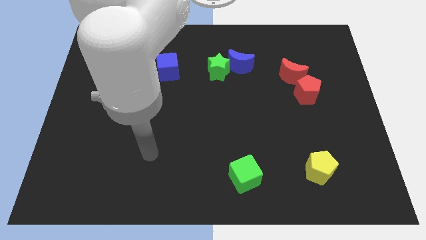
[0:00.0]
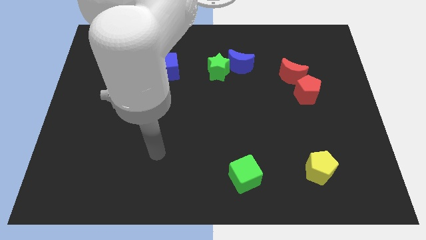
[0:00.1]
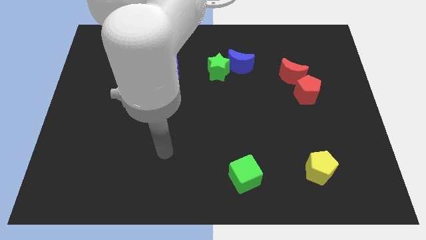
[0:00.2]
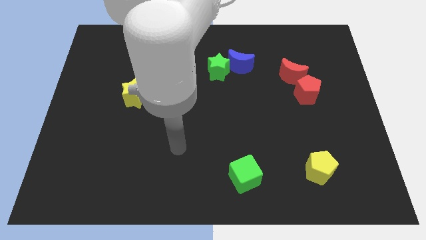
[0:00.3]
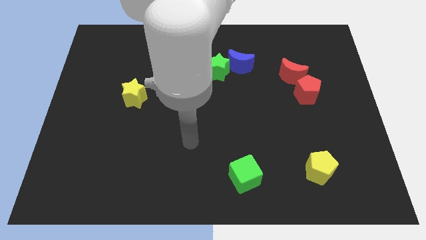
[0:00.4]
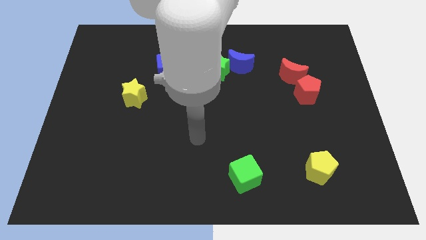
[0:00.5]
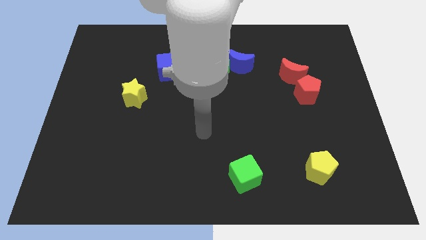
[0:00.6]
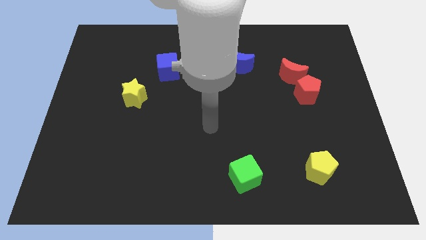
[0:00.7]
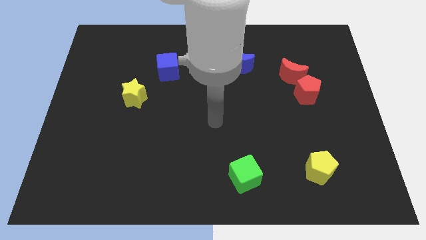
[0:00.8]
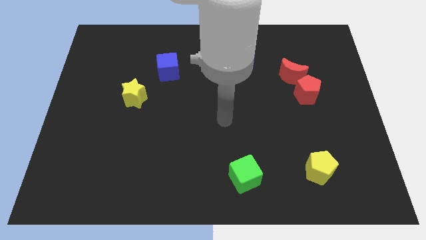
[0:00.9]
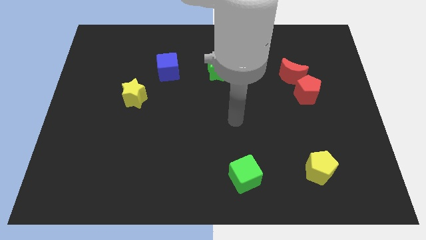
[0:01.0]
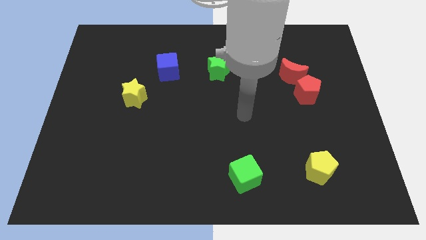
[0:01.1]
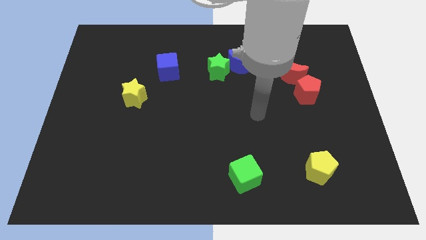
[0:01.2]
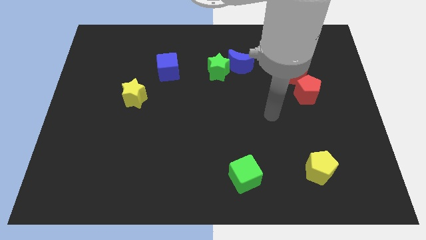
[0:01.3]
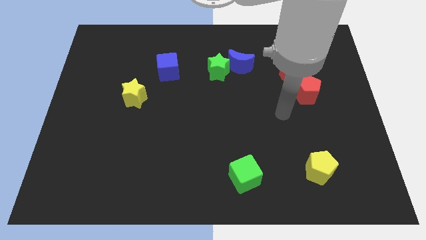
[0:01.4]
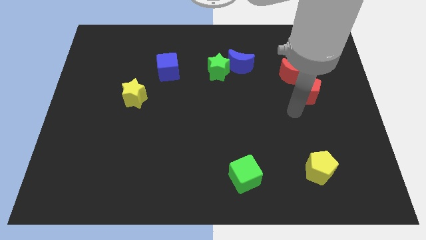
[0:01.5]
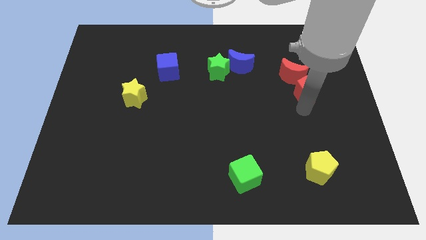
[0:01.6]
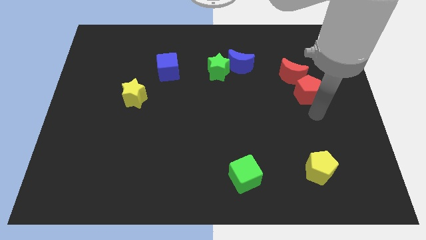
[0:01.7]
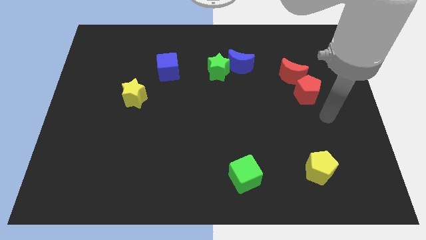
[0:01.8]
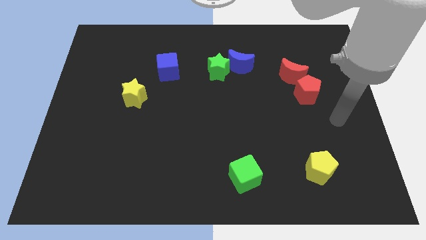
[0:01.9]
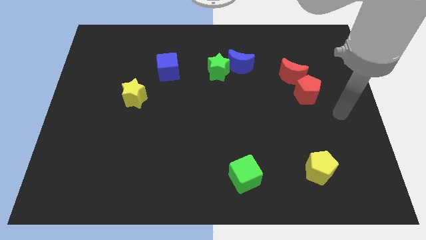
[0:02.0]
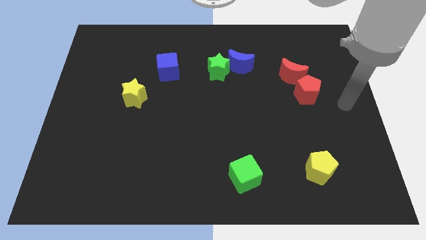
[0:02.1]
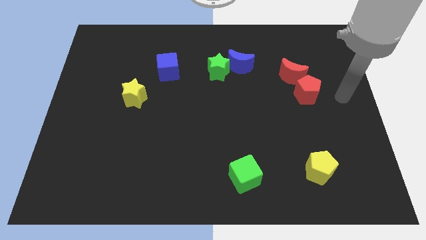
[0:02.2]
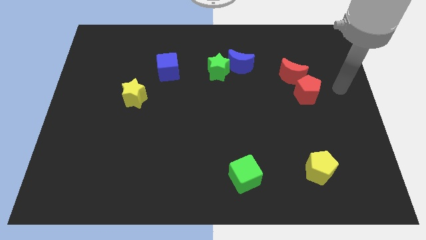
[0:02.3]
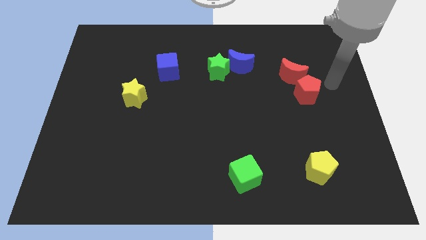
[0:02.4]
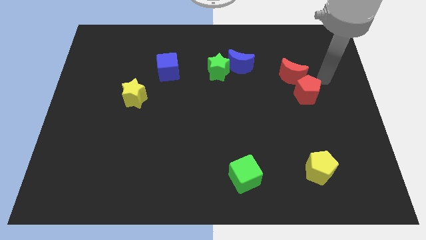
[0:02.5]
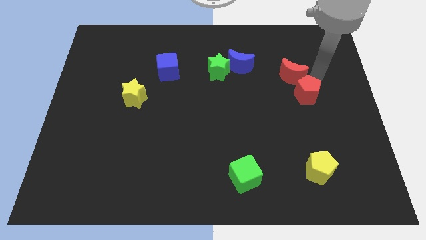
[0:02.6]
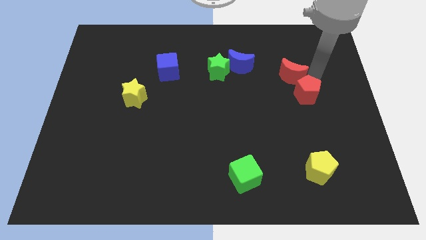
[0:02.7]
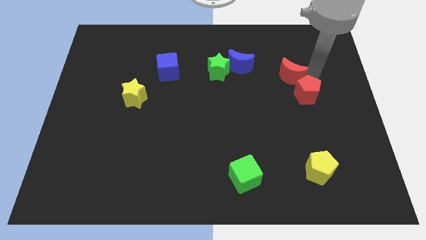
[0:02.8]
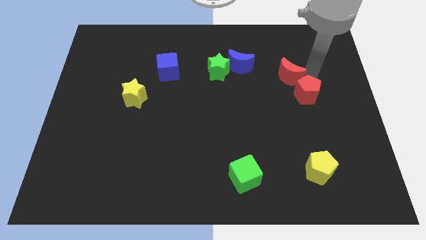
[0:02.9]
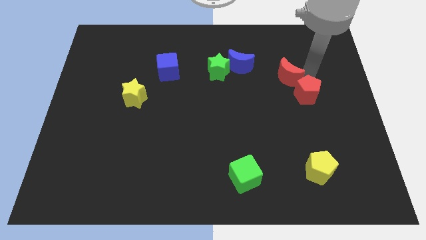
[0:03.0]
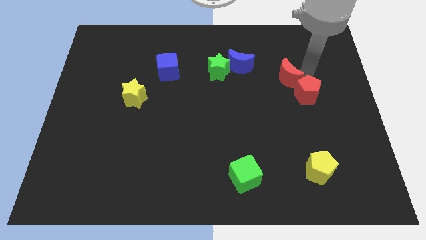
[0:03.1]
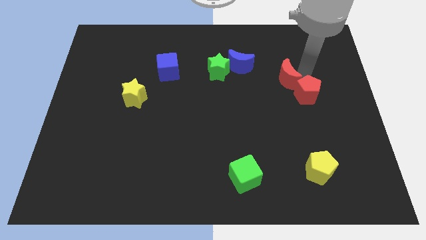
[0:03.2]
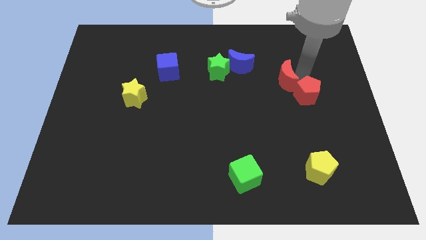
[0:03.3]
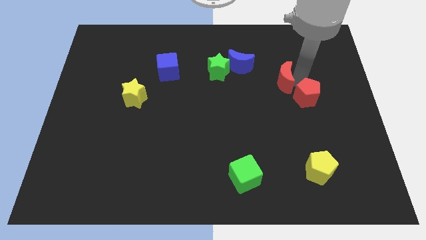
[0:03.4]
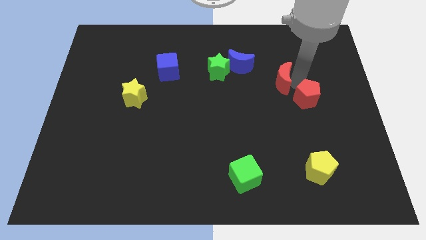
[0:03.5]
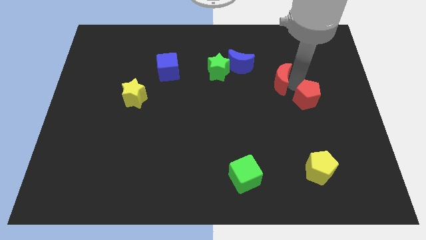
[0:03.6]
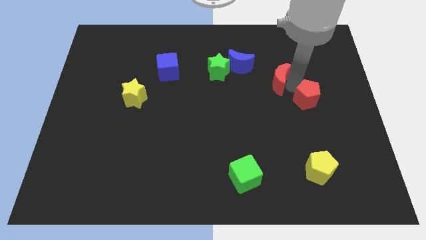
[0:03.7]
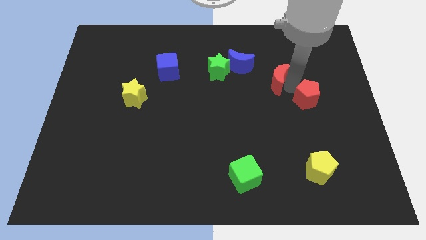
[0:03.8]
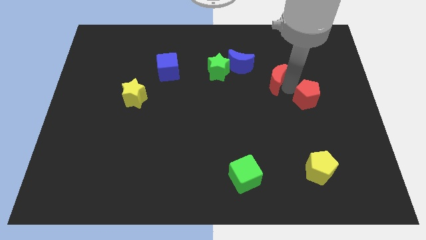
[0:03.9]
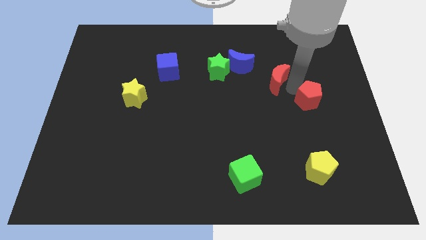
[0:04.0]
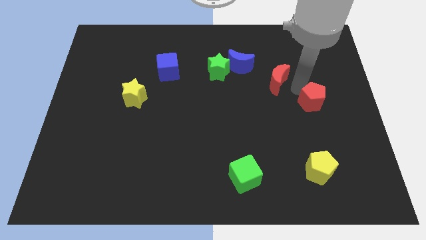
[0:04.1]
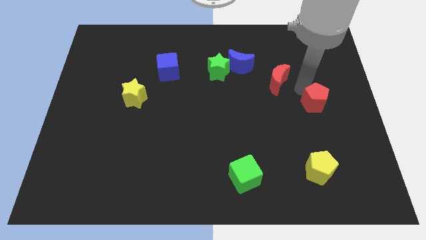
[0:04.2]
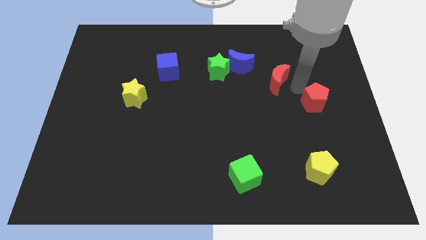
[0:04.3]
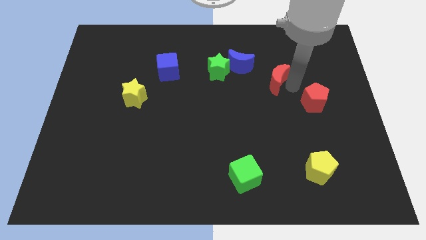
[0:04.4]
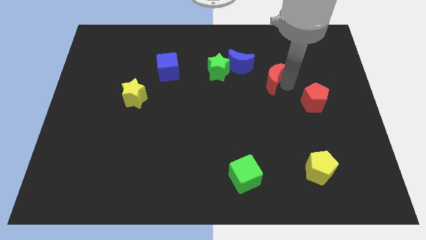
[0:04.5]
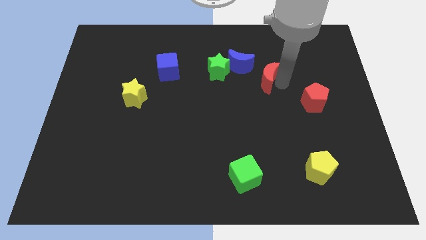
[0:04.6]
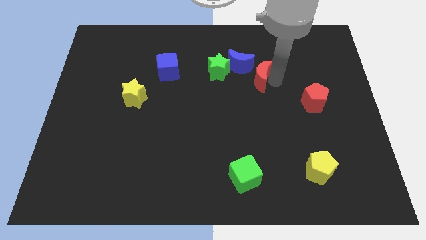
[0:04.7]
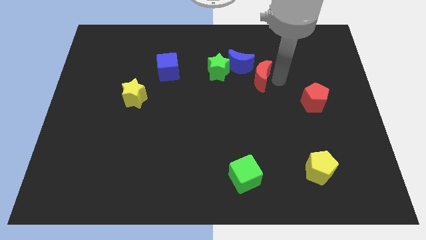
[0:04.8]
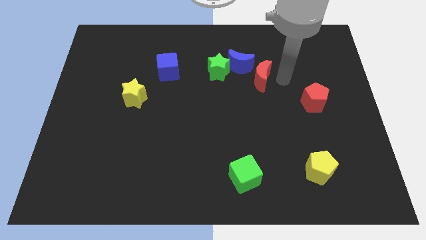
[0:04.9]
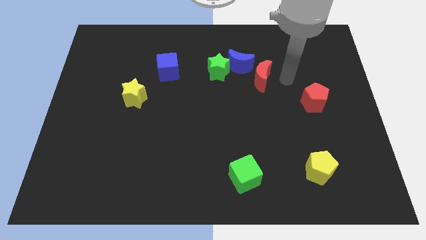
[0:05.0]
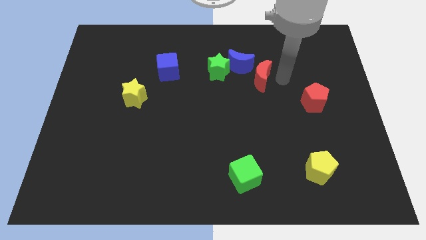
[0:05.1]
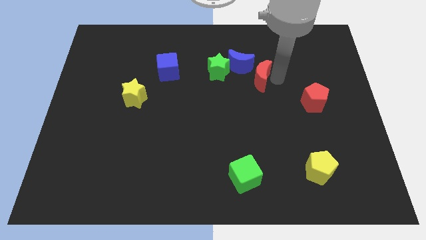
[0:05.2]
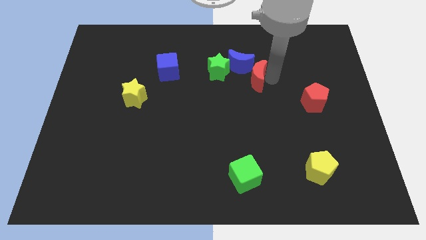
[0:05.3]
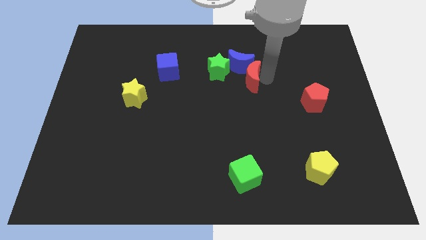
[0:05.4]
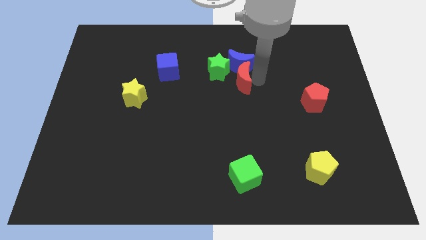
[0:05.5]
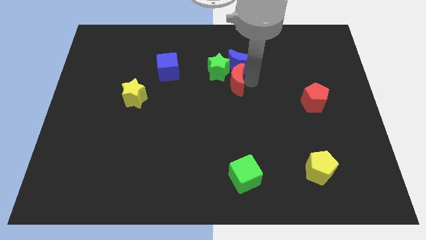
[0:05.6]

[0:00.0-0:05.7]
push the red moon close to the green star
